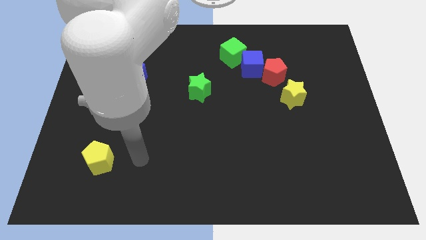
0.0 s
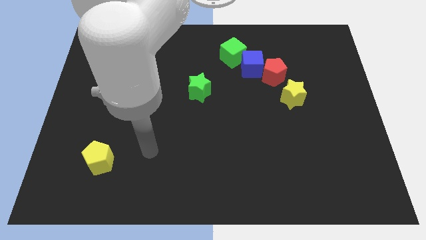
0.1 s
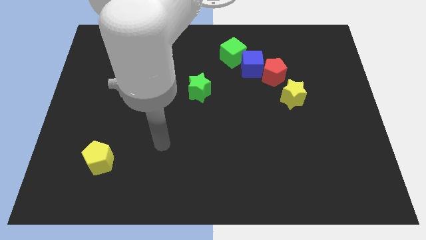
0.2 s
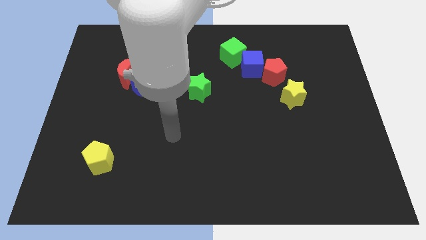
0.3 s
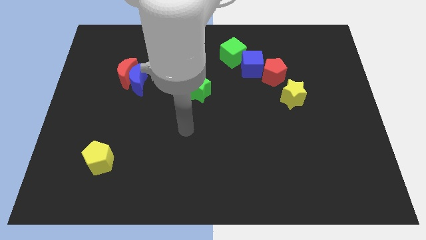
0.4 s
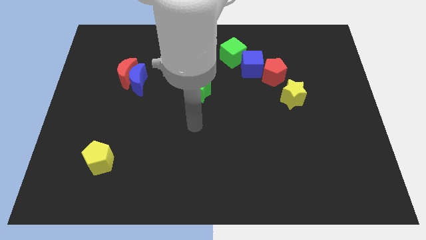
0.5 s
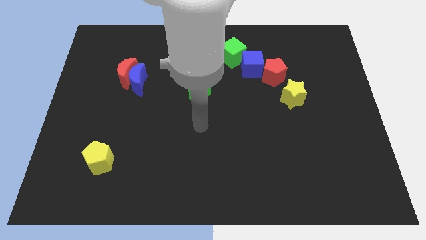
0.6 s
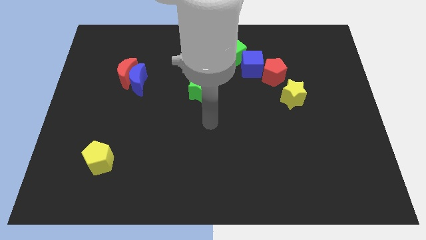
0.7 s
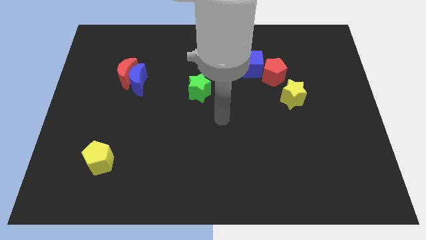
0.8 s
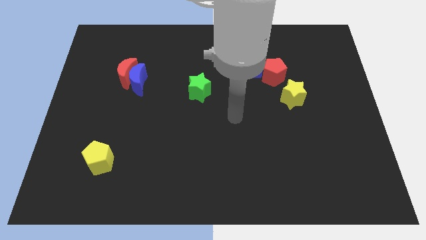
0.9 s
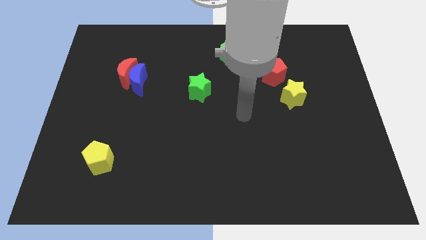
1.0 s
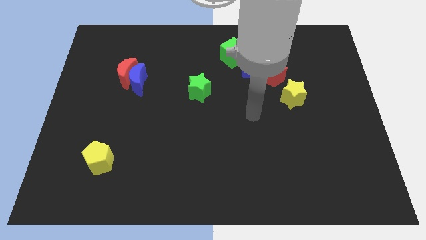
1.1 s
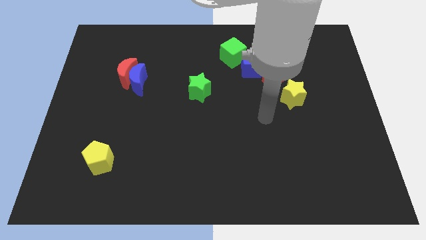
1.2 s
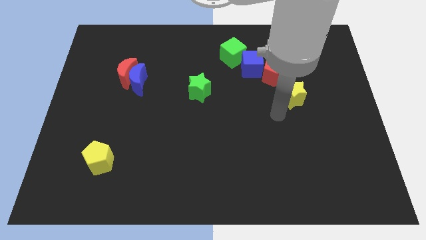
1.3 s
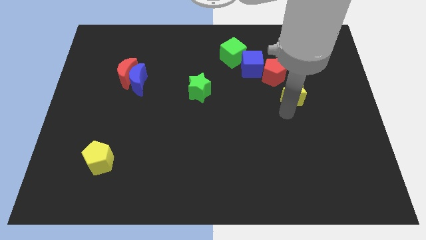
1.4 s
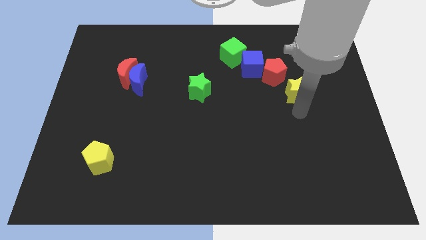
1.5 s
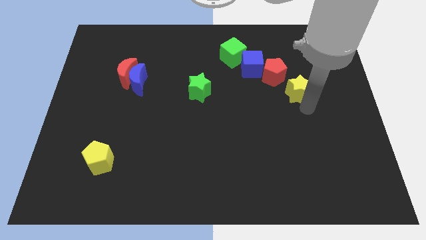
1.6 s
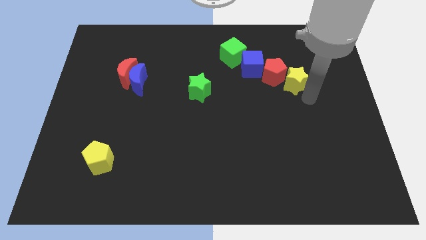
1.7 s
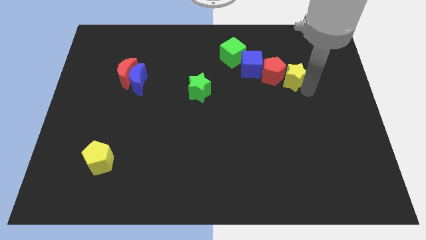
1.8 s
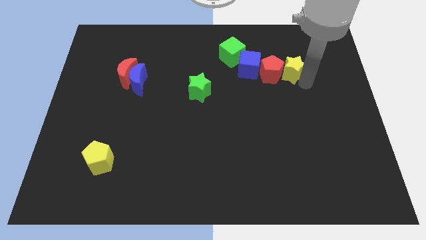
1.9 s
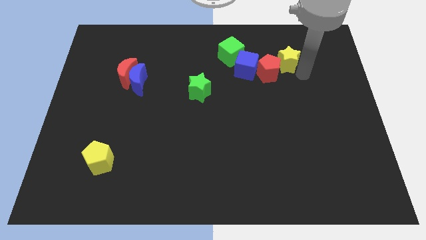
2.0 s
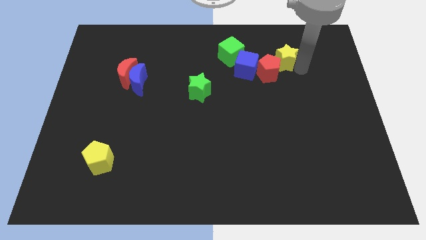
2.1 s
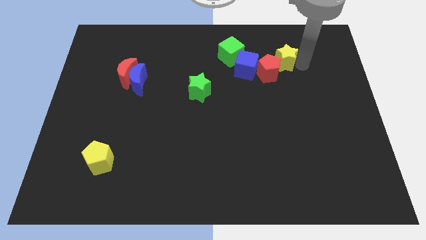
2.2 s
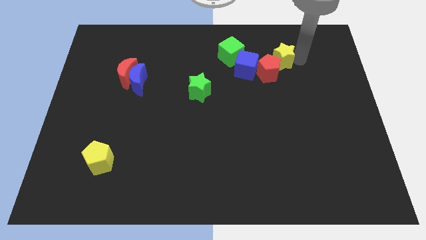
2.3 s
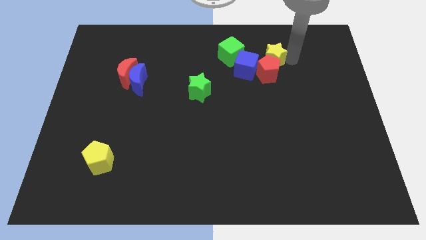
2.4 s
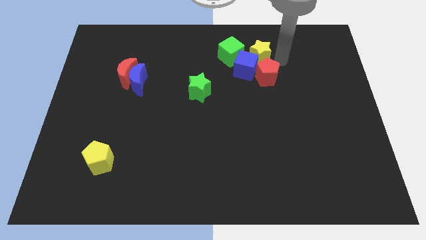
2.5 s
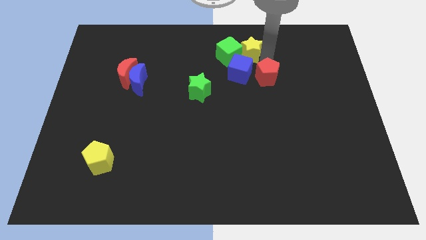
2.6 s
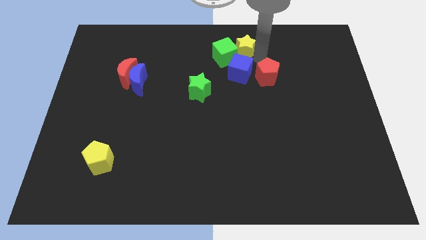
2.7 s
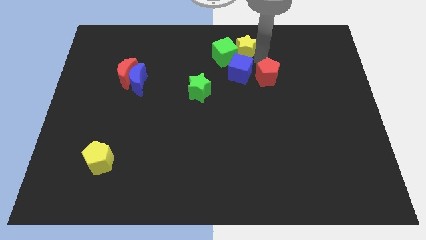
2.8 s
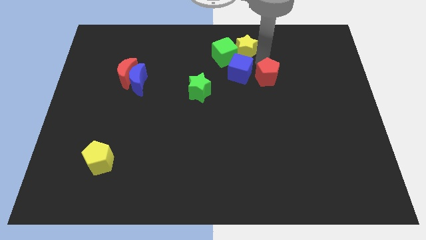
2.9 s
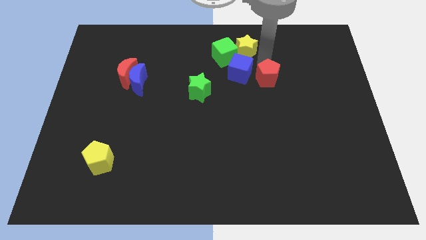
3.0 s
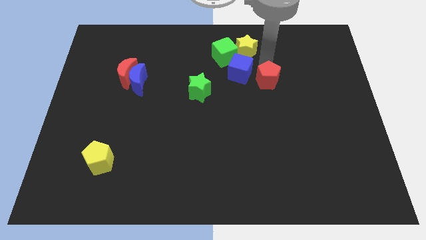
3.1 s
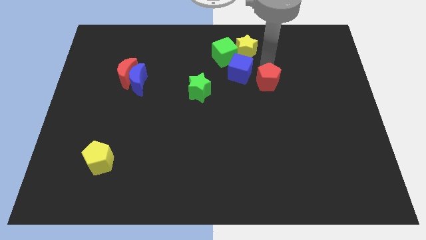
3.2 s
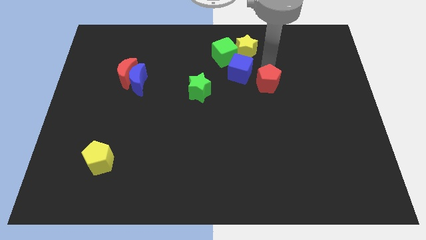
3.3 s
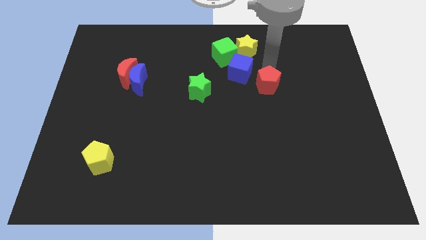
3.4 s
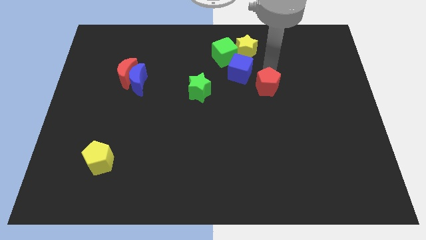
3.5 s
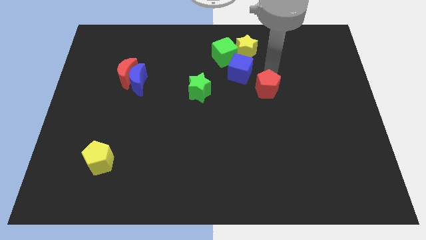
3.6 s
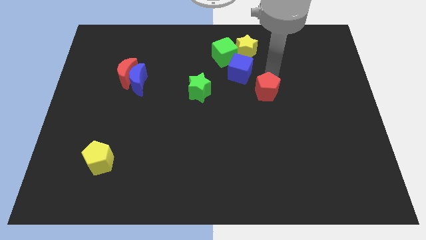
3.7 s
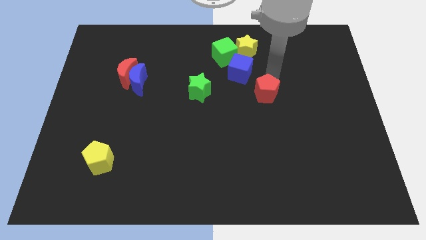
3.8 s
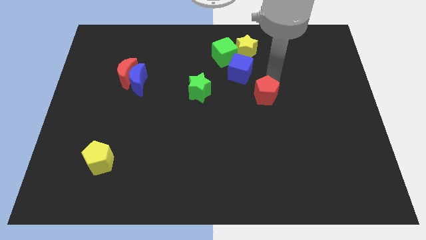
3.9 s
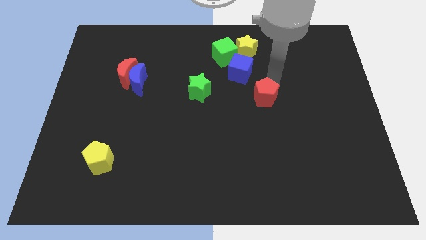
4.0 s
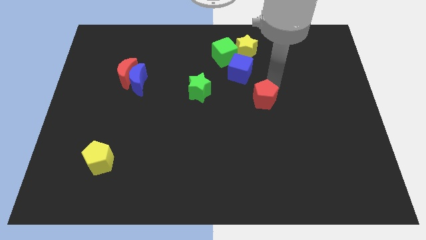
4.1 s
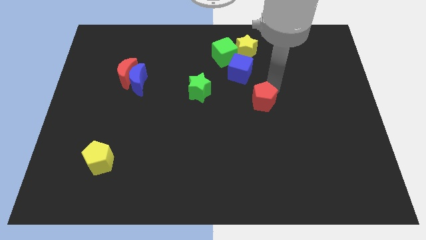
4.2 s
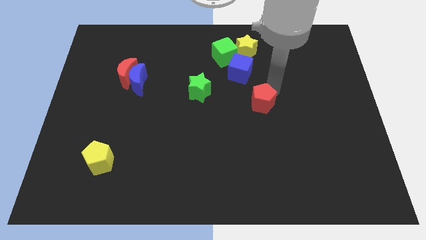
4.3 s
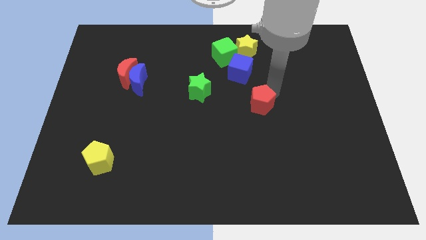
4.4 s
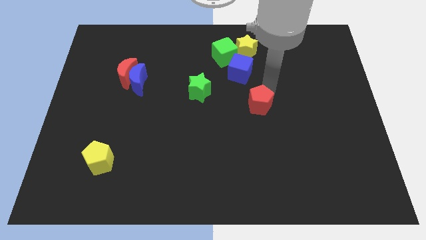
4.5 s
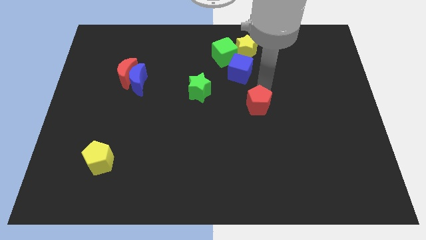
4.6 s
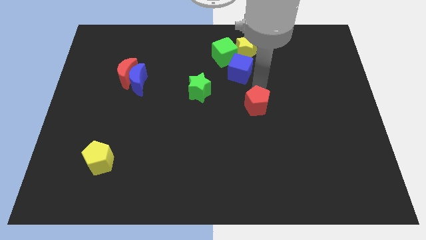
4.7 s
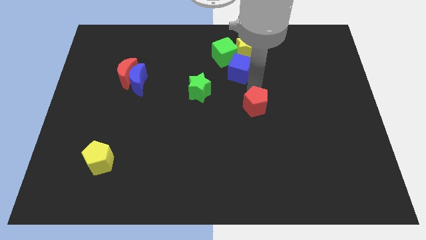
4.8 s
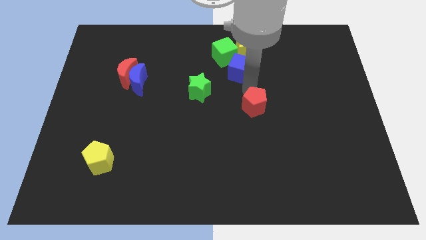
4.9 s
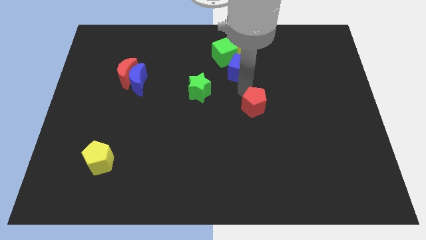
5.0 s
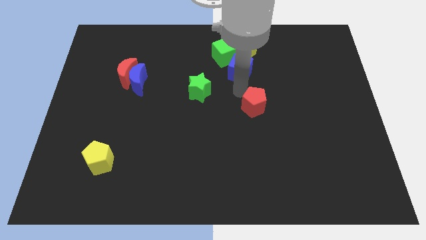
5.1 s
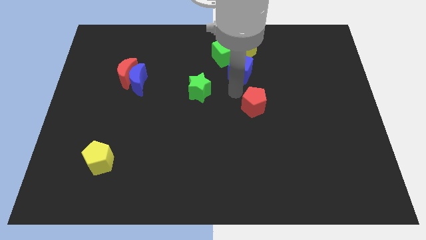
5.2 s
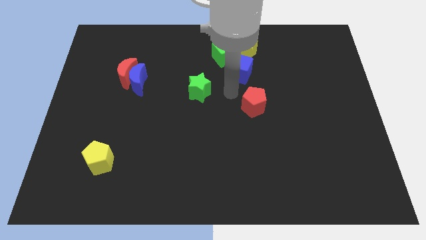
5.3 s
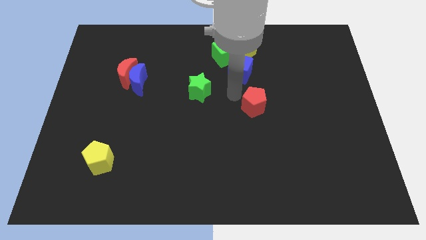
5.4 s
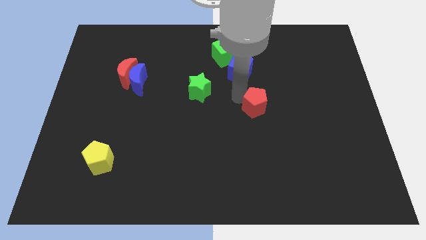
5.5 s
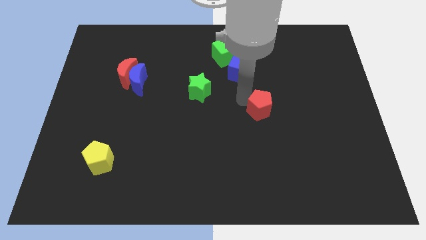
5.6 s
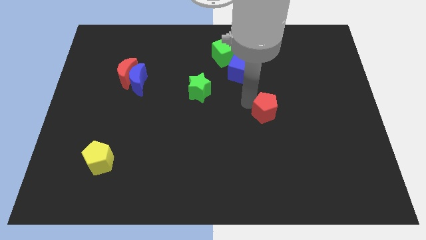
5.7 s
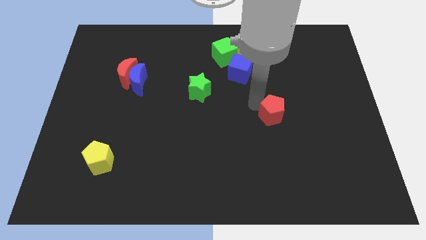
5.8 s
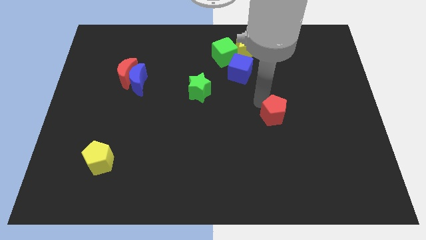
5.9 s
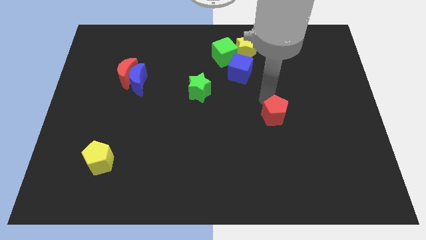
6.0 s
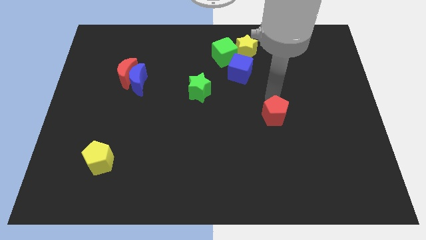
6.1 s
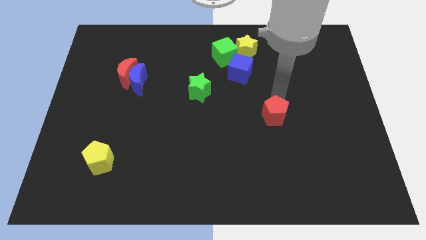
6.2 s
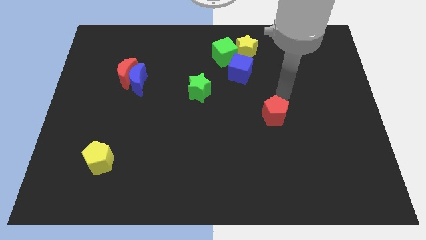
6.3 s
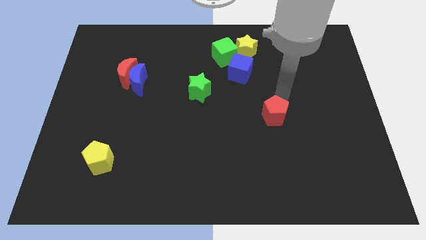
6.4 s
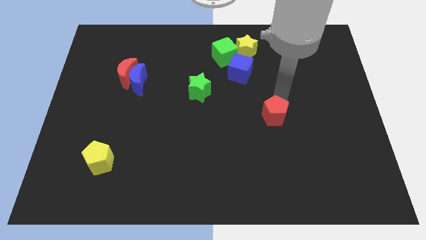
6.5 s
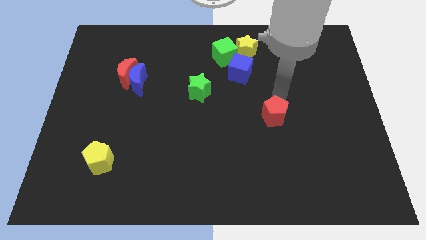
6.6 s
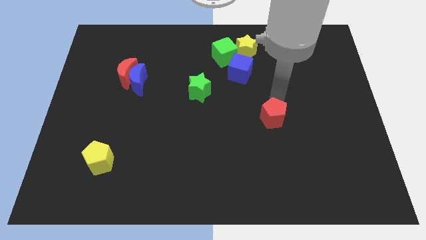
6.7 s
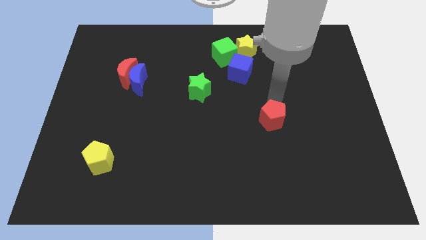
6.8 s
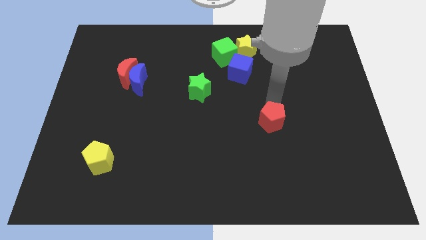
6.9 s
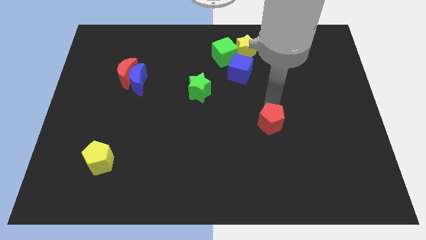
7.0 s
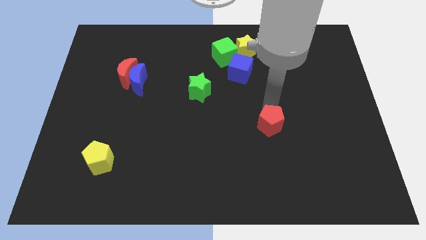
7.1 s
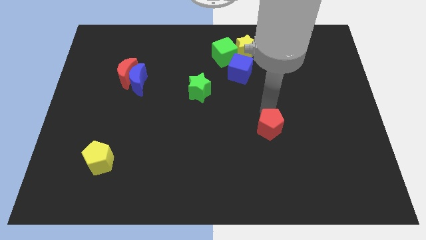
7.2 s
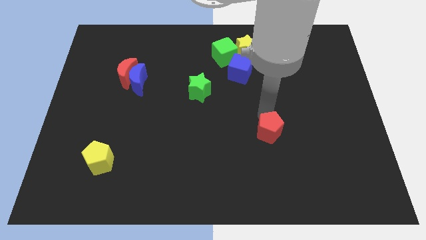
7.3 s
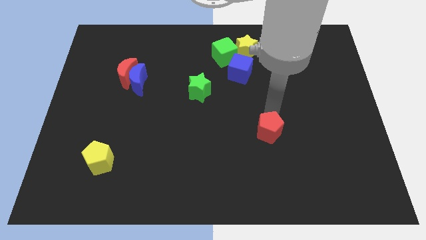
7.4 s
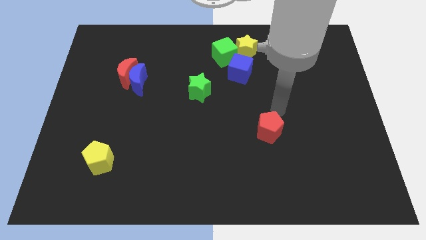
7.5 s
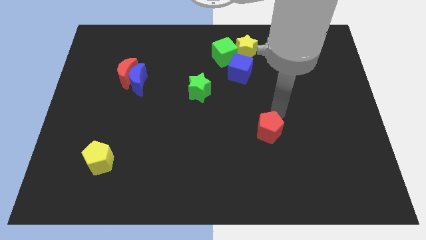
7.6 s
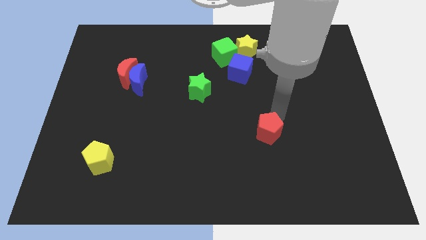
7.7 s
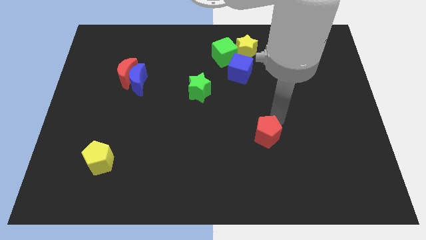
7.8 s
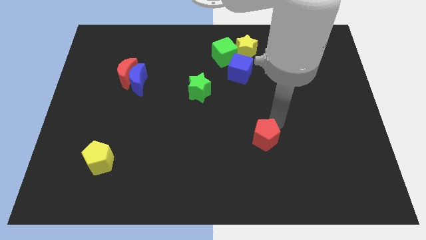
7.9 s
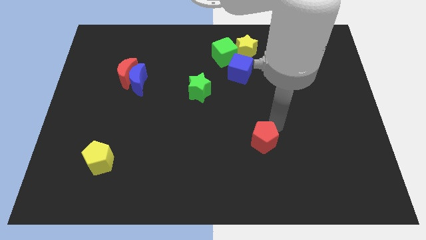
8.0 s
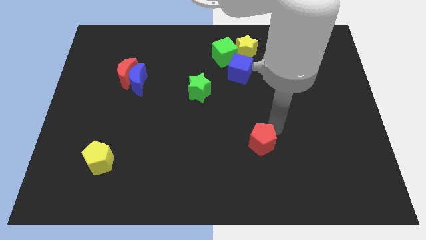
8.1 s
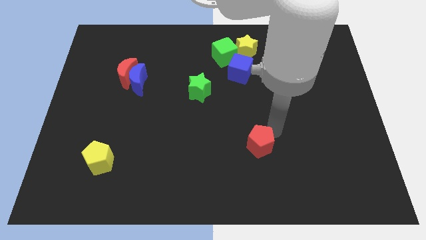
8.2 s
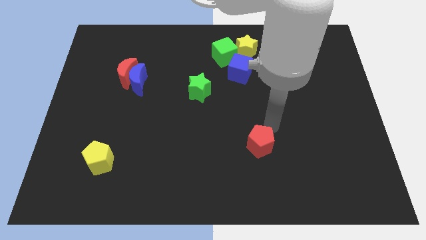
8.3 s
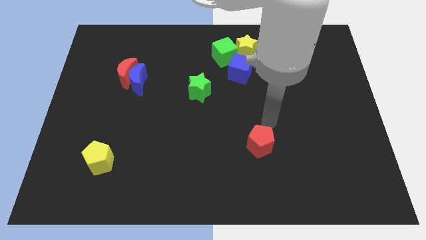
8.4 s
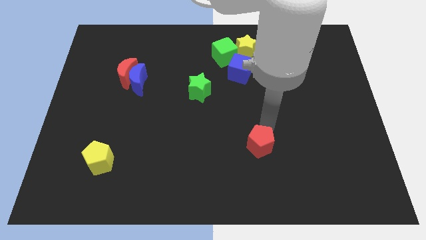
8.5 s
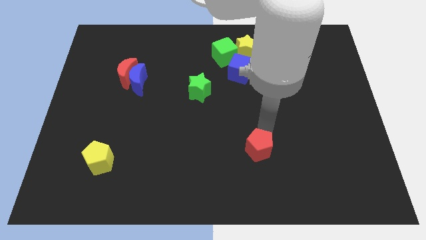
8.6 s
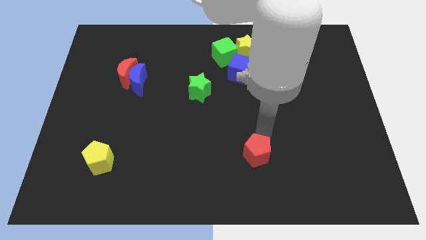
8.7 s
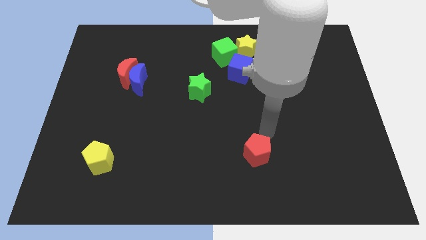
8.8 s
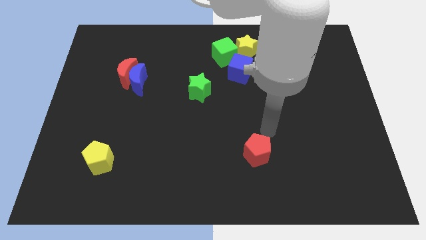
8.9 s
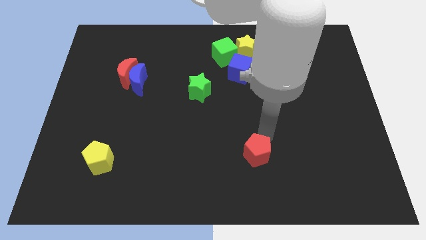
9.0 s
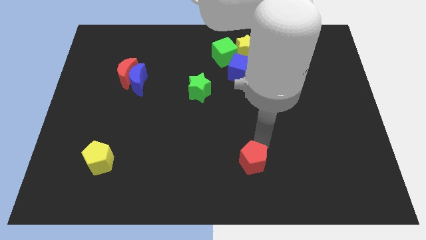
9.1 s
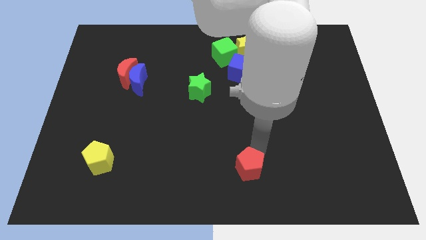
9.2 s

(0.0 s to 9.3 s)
push the red pentagon to the bottom
